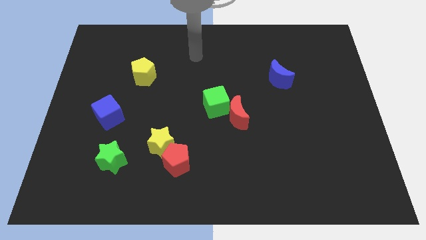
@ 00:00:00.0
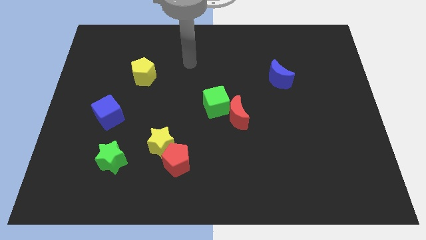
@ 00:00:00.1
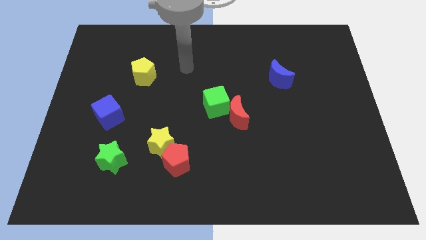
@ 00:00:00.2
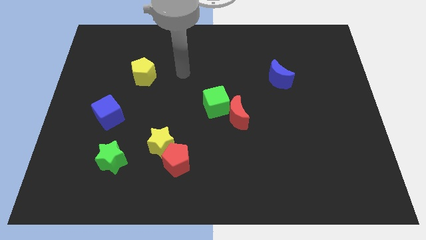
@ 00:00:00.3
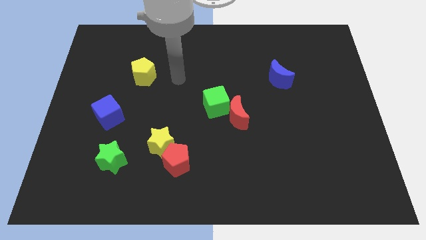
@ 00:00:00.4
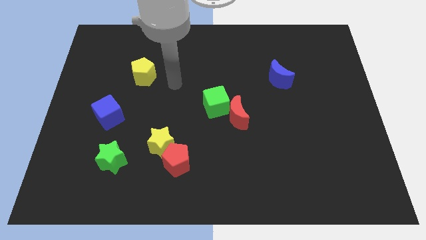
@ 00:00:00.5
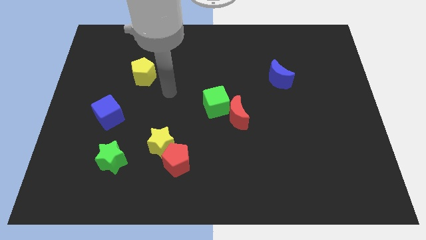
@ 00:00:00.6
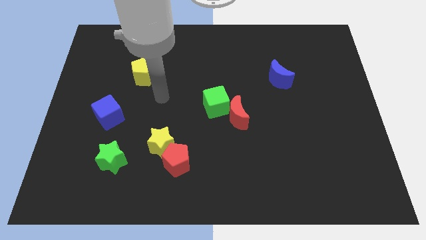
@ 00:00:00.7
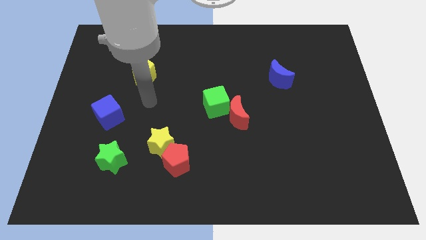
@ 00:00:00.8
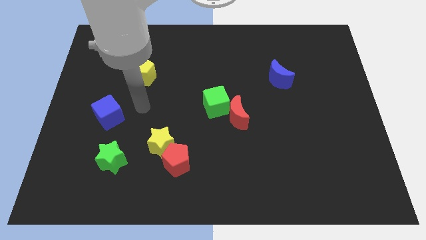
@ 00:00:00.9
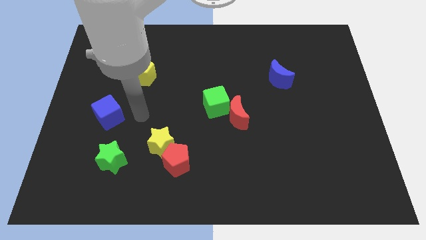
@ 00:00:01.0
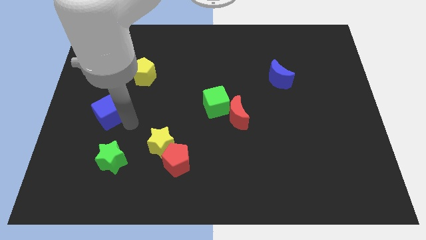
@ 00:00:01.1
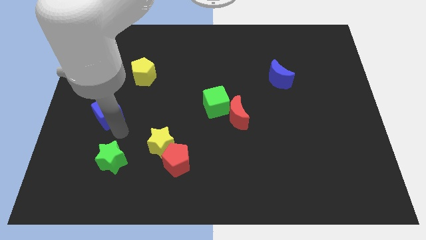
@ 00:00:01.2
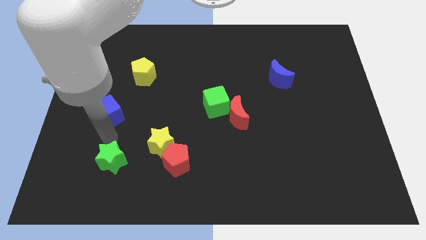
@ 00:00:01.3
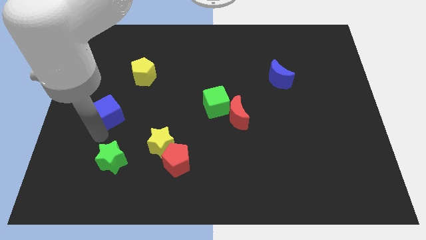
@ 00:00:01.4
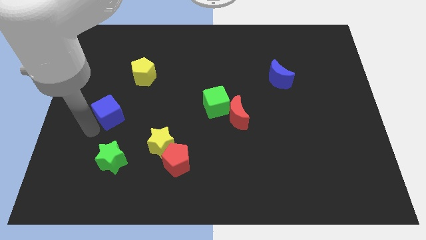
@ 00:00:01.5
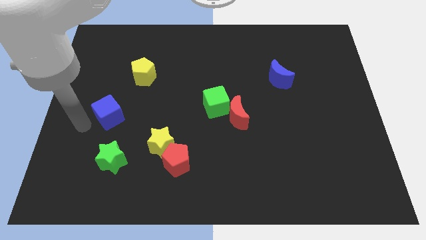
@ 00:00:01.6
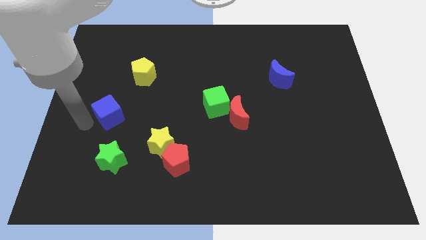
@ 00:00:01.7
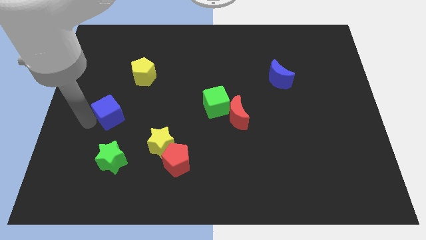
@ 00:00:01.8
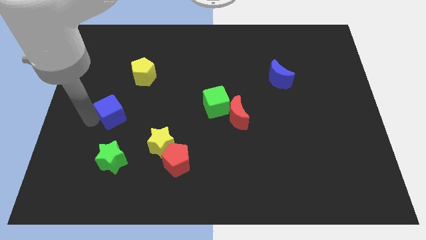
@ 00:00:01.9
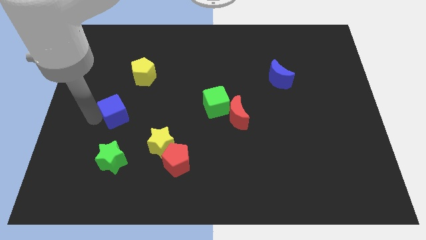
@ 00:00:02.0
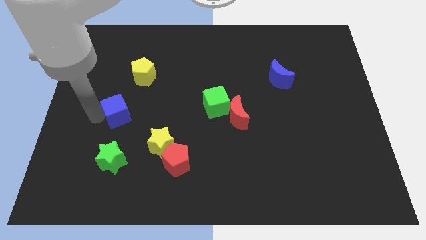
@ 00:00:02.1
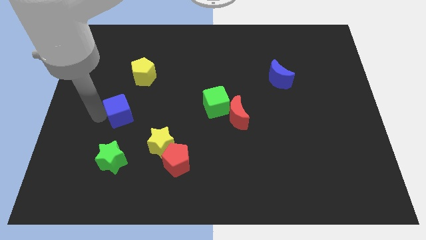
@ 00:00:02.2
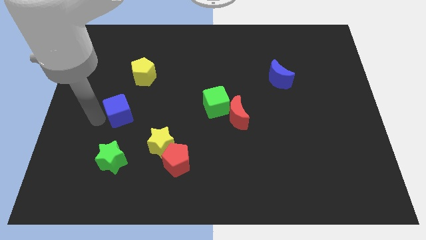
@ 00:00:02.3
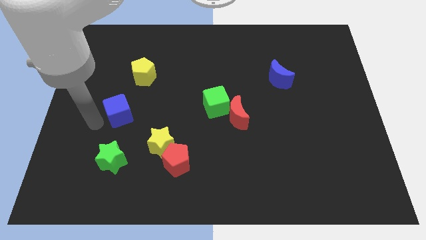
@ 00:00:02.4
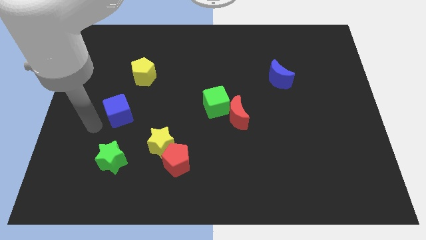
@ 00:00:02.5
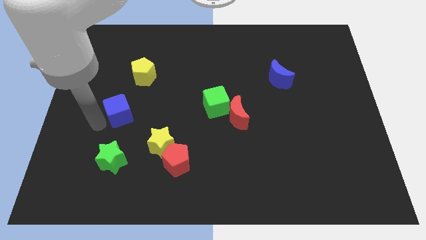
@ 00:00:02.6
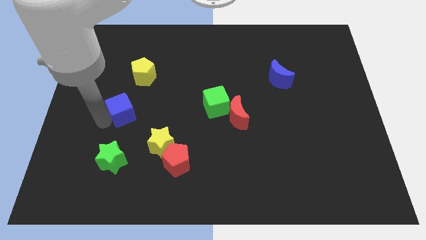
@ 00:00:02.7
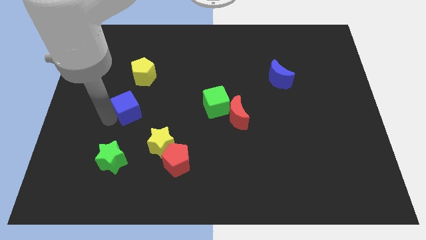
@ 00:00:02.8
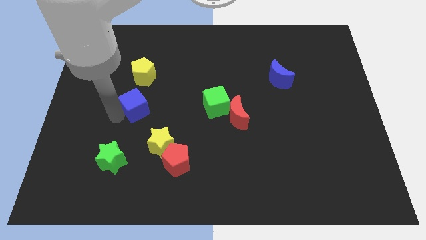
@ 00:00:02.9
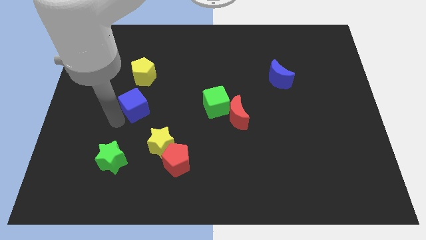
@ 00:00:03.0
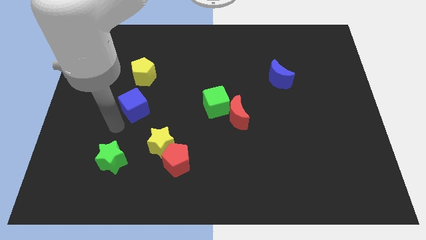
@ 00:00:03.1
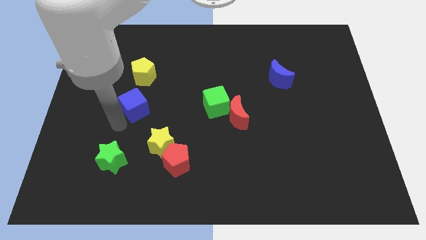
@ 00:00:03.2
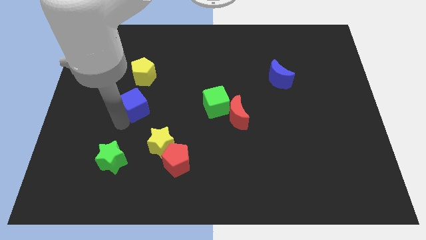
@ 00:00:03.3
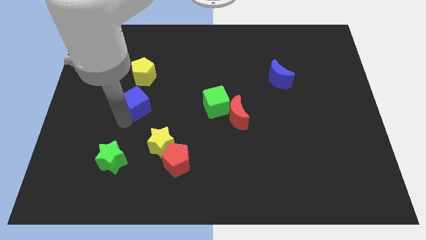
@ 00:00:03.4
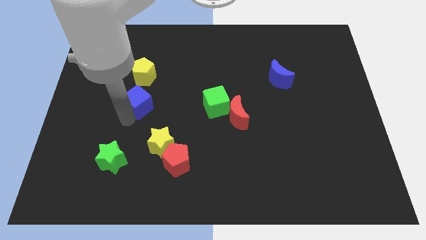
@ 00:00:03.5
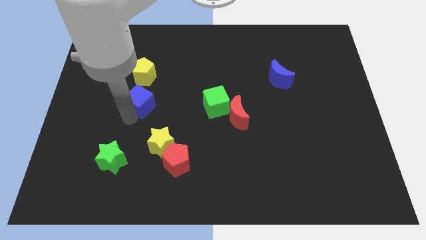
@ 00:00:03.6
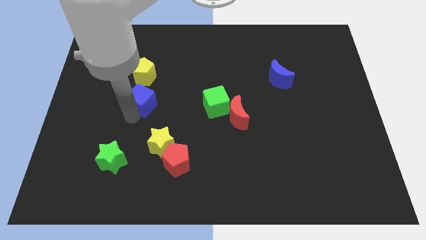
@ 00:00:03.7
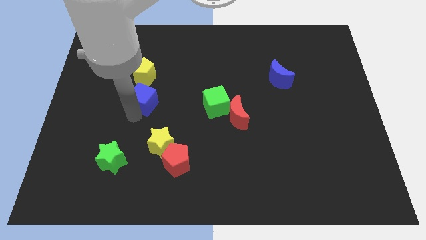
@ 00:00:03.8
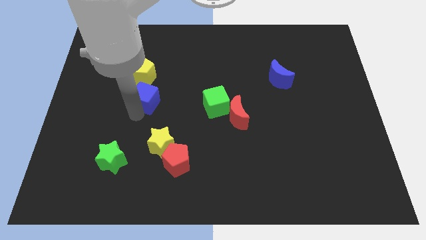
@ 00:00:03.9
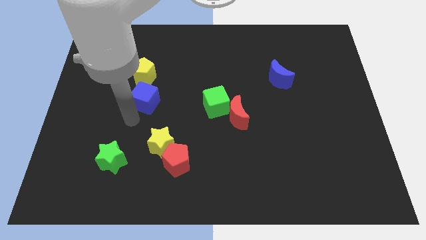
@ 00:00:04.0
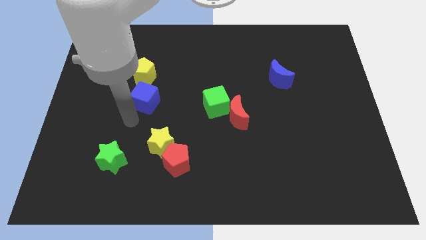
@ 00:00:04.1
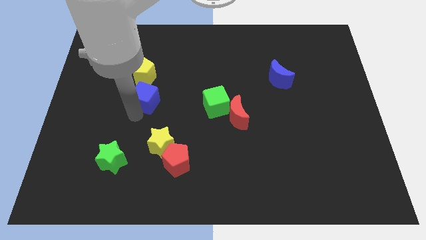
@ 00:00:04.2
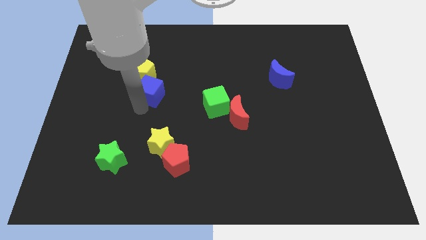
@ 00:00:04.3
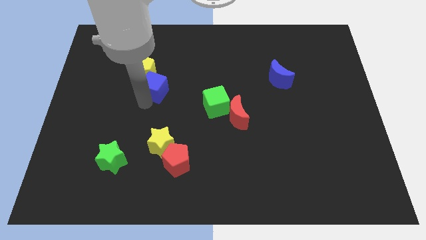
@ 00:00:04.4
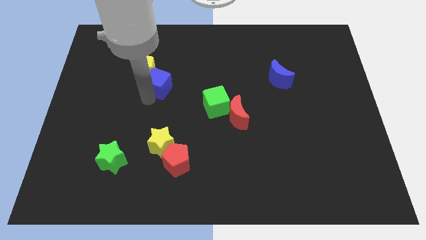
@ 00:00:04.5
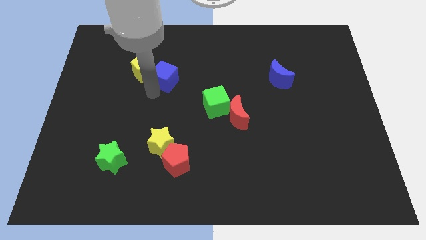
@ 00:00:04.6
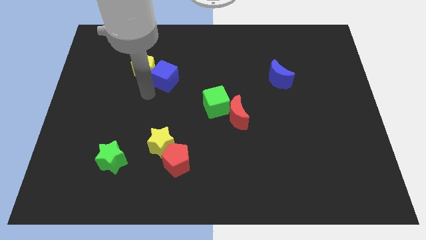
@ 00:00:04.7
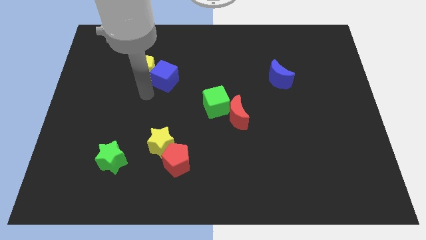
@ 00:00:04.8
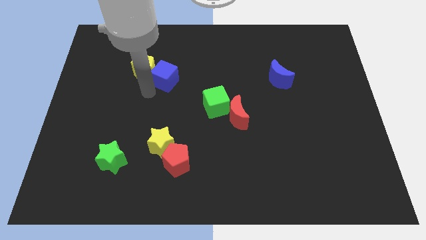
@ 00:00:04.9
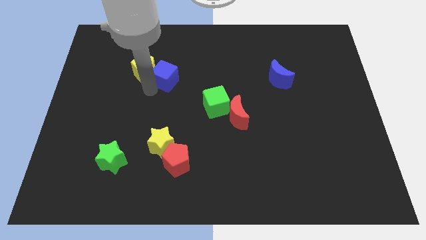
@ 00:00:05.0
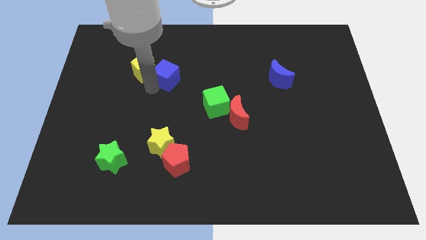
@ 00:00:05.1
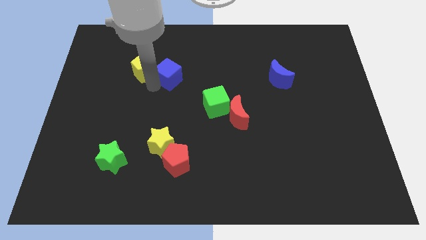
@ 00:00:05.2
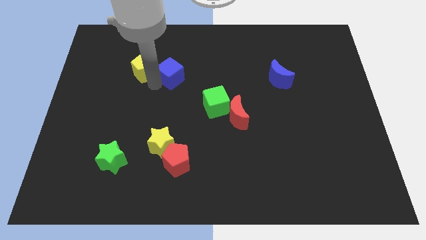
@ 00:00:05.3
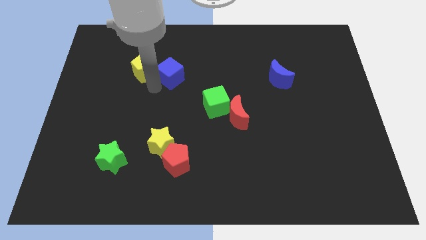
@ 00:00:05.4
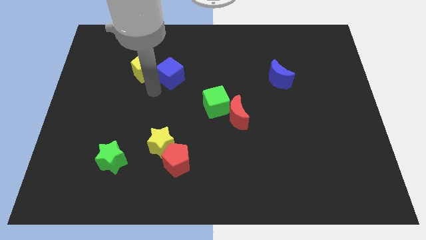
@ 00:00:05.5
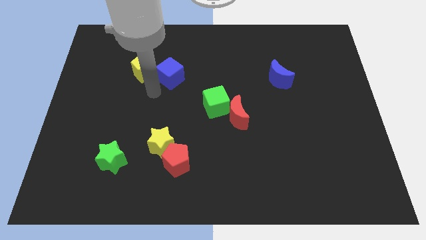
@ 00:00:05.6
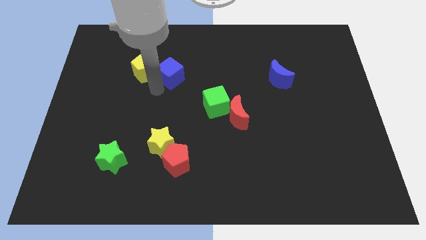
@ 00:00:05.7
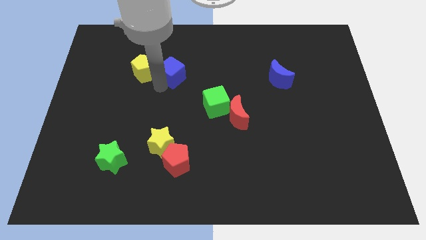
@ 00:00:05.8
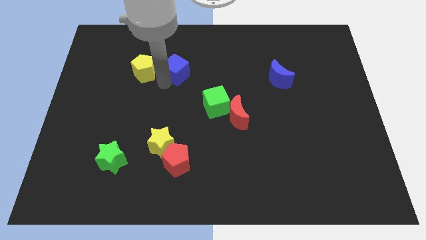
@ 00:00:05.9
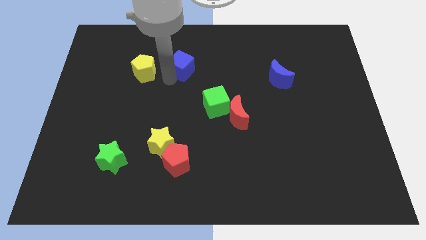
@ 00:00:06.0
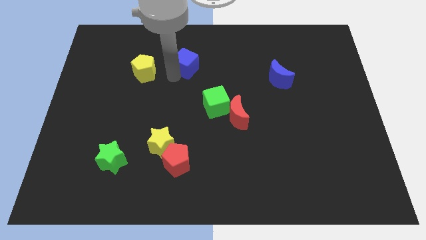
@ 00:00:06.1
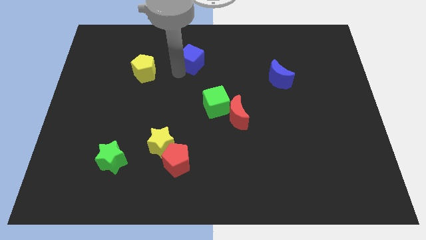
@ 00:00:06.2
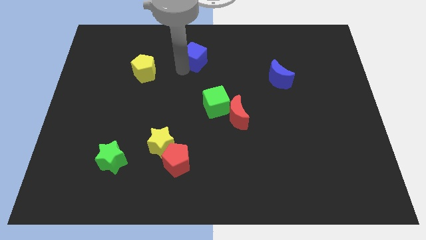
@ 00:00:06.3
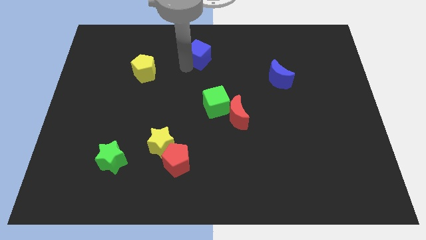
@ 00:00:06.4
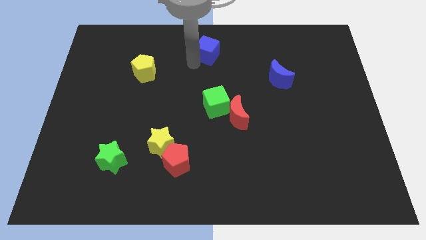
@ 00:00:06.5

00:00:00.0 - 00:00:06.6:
slide the blue cube to the towards your base
